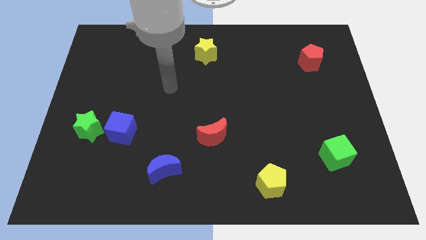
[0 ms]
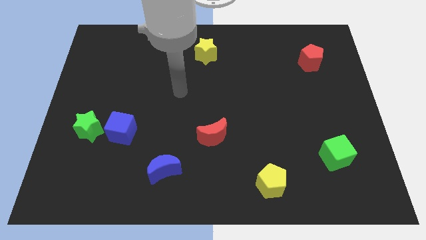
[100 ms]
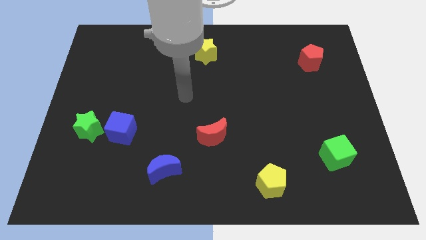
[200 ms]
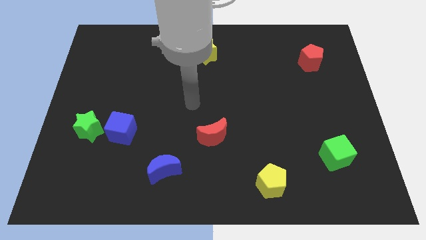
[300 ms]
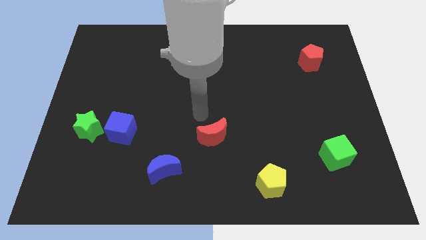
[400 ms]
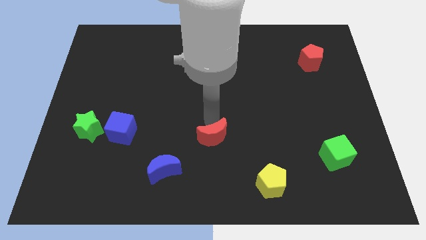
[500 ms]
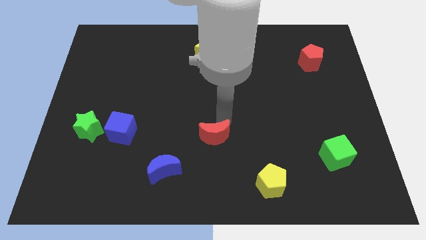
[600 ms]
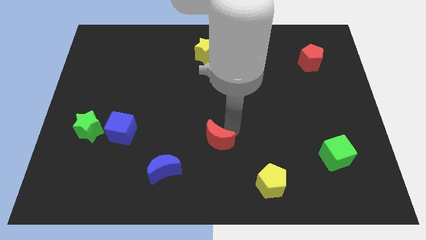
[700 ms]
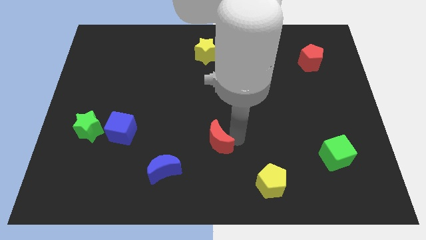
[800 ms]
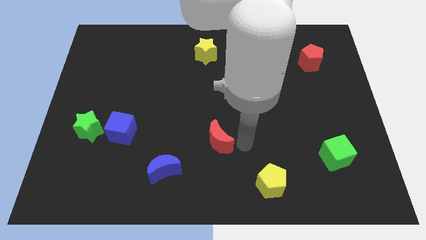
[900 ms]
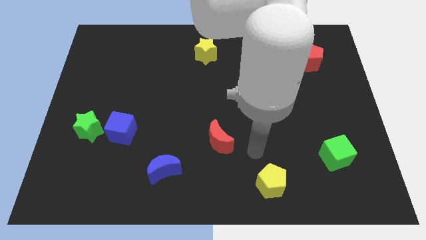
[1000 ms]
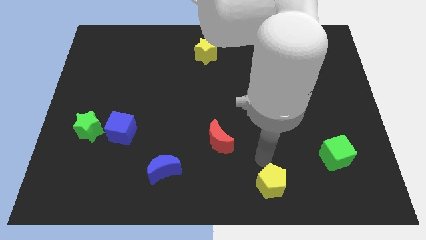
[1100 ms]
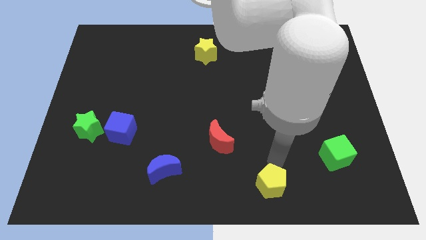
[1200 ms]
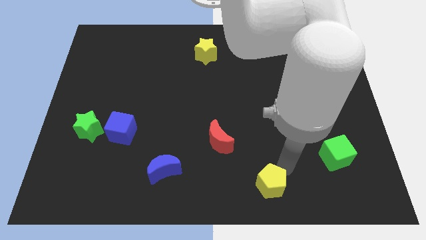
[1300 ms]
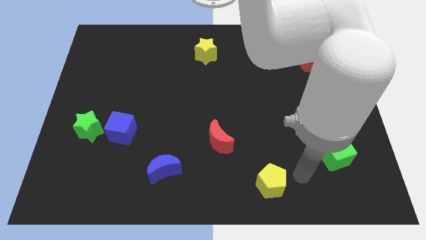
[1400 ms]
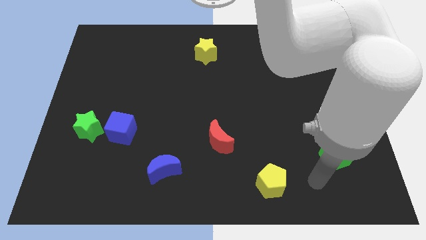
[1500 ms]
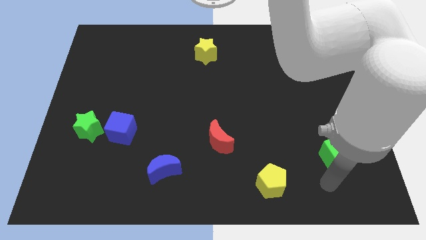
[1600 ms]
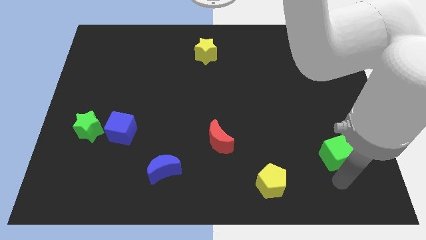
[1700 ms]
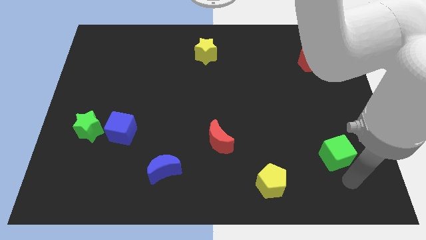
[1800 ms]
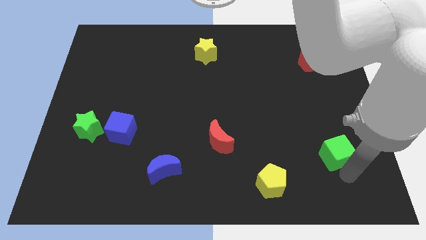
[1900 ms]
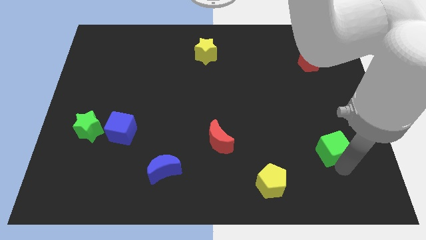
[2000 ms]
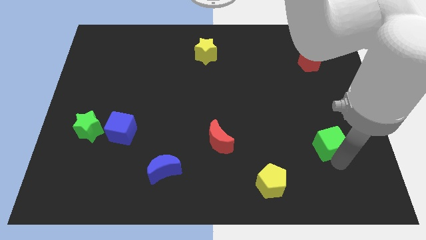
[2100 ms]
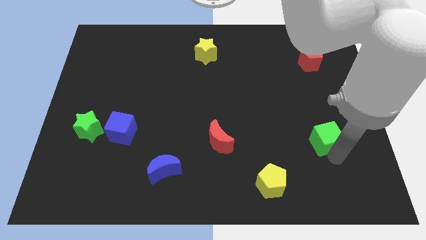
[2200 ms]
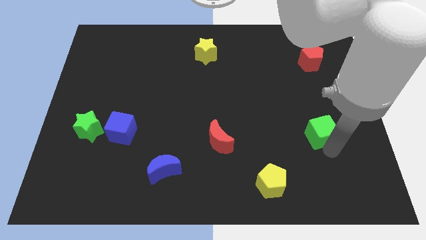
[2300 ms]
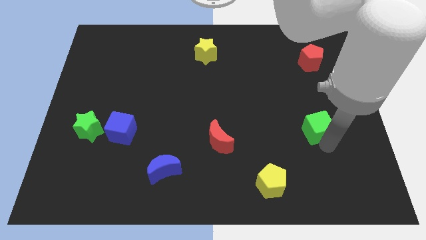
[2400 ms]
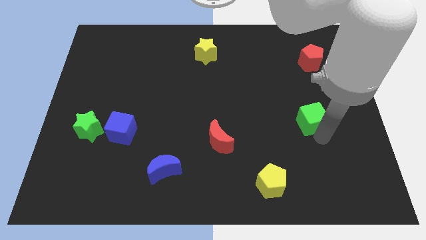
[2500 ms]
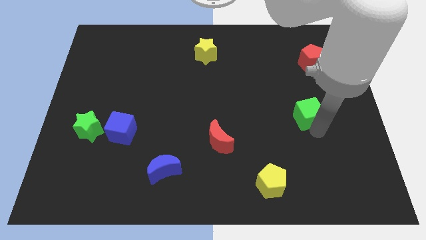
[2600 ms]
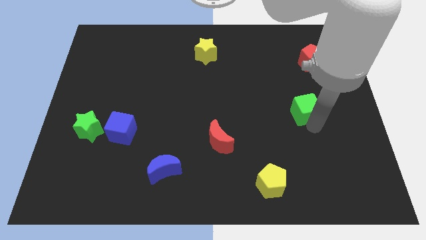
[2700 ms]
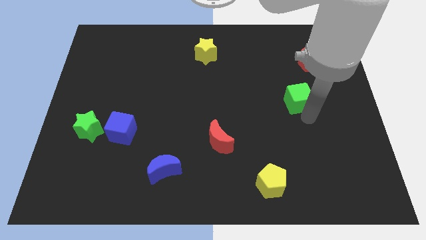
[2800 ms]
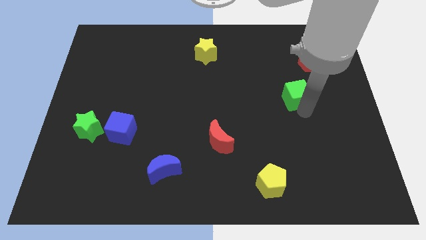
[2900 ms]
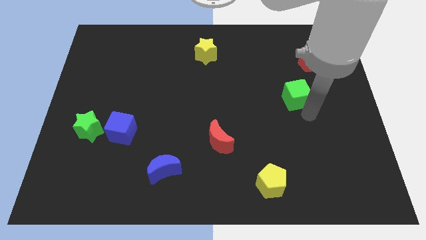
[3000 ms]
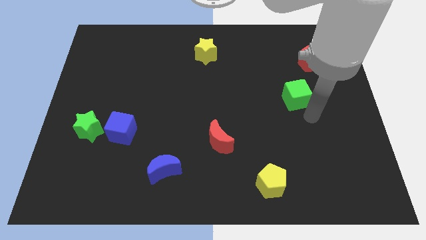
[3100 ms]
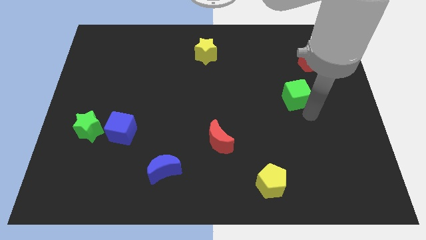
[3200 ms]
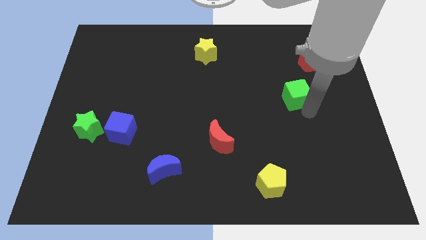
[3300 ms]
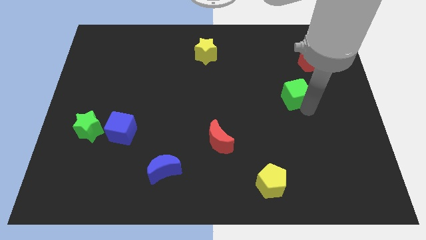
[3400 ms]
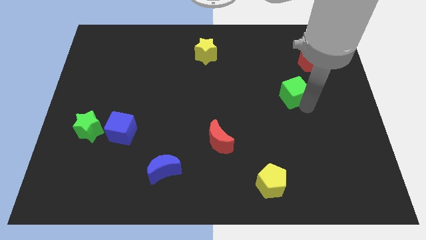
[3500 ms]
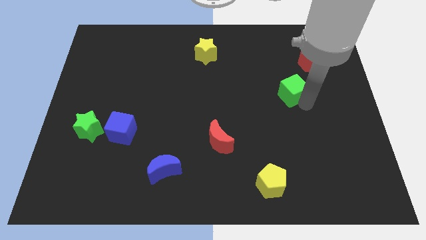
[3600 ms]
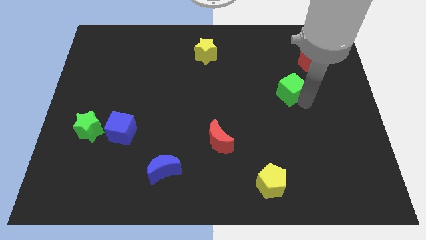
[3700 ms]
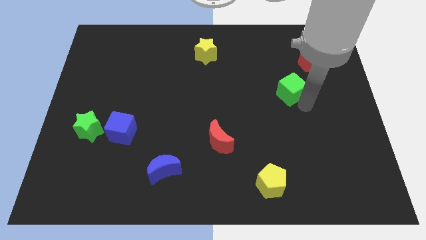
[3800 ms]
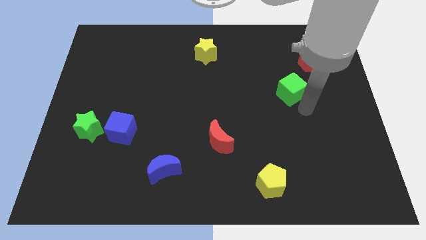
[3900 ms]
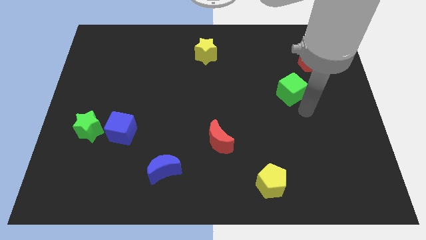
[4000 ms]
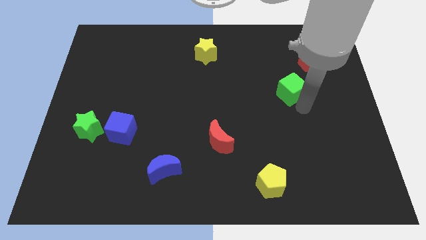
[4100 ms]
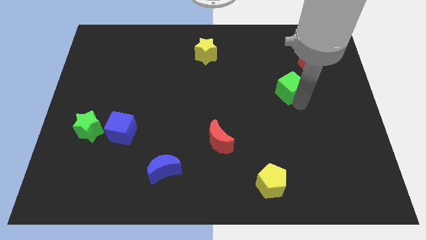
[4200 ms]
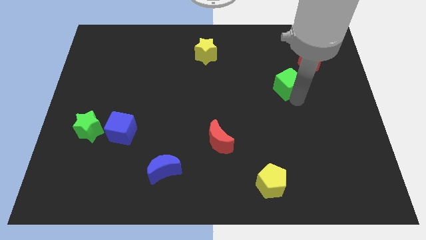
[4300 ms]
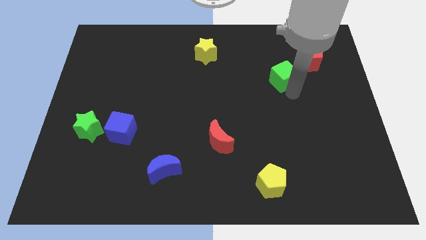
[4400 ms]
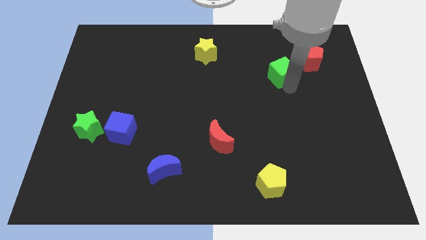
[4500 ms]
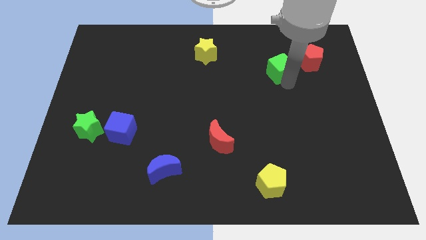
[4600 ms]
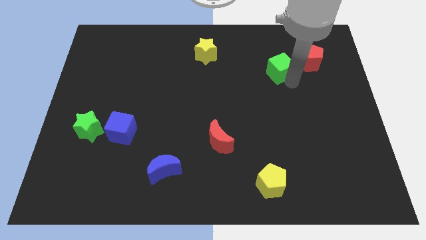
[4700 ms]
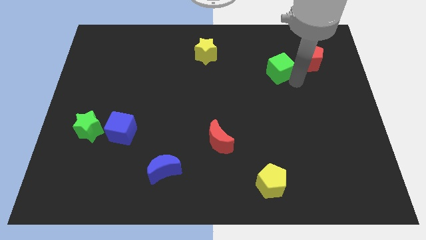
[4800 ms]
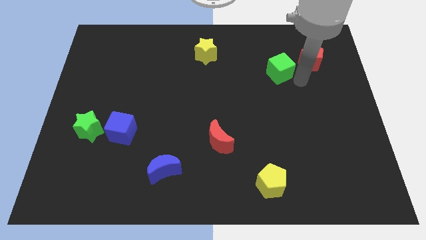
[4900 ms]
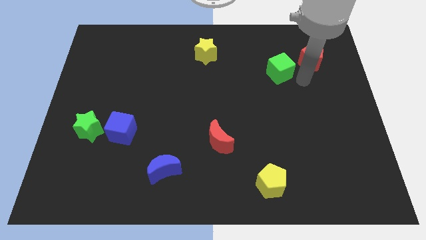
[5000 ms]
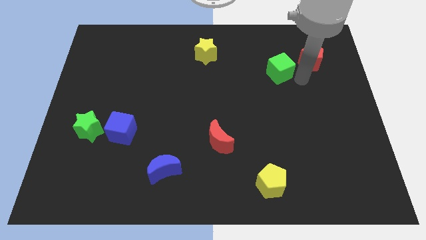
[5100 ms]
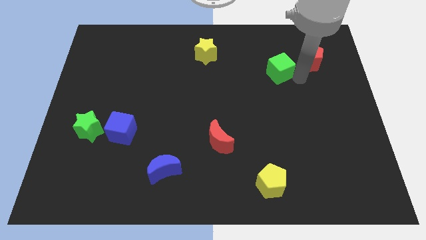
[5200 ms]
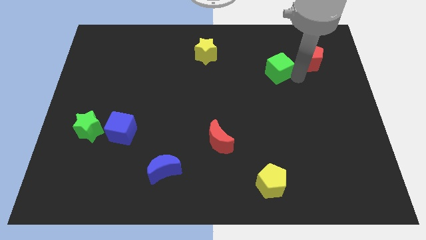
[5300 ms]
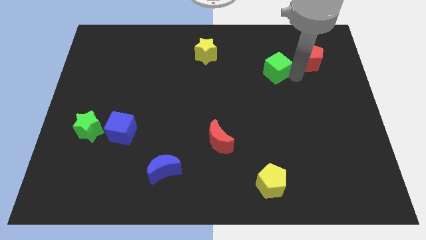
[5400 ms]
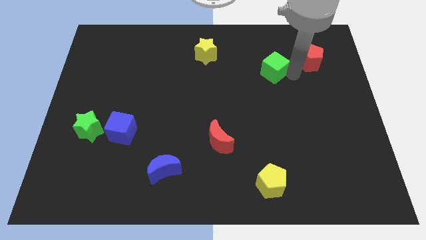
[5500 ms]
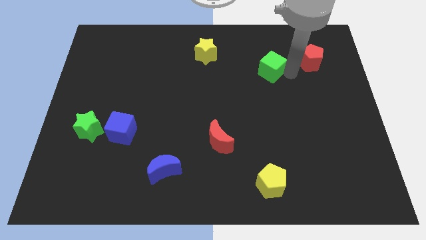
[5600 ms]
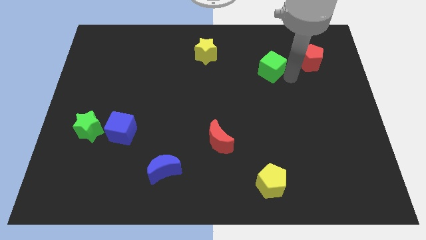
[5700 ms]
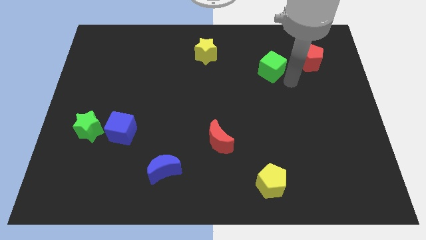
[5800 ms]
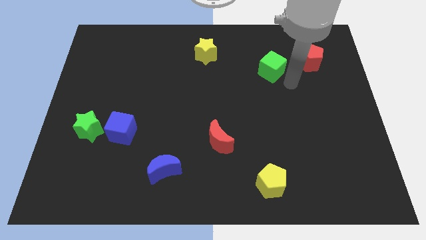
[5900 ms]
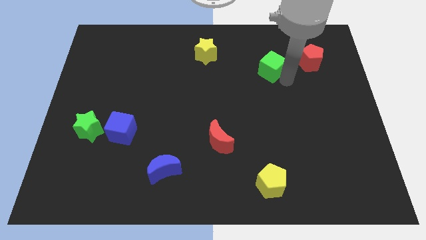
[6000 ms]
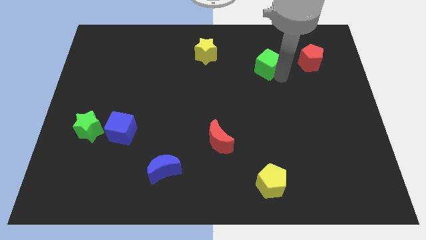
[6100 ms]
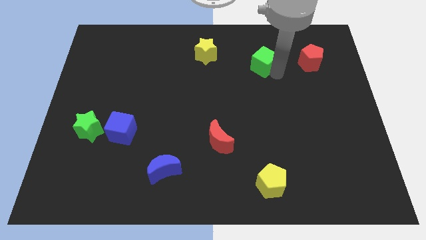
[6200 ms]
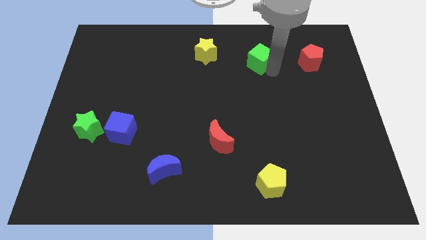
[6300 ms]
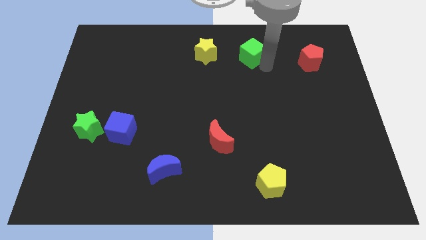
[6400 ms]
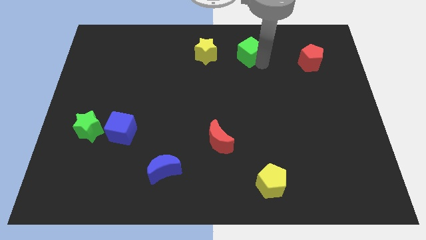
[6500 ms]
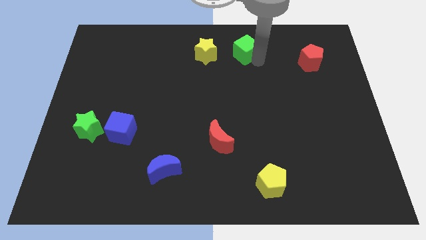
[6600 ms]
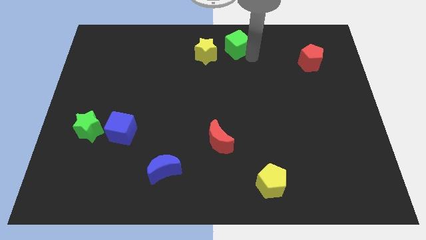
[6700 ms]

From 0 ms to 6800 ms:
move the green cube to the top side
